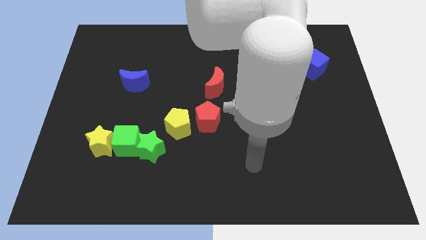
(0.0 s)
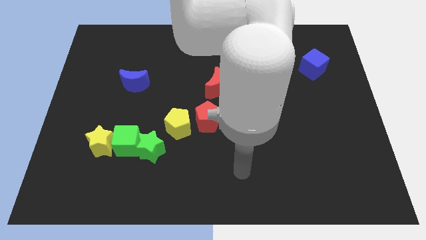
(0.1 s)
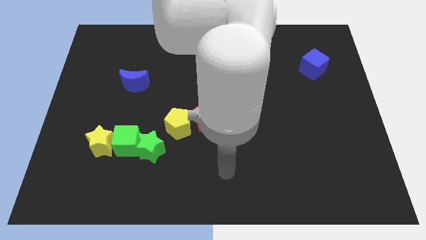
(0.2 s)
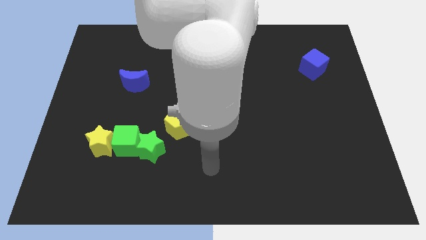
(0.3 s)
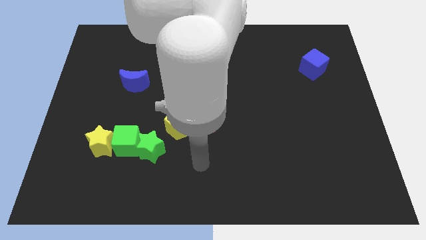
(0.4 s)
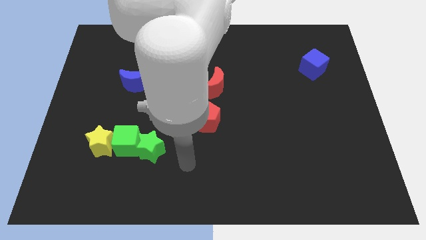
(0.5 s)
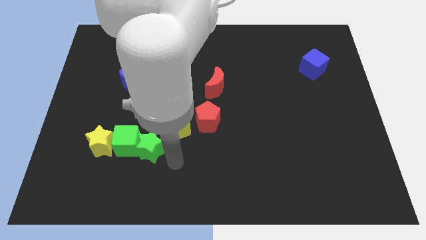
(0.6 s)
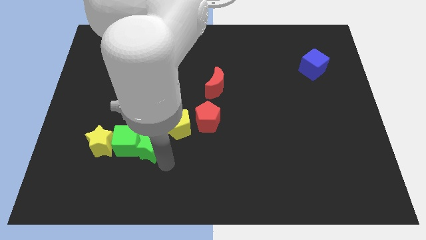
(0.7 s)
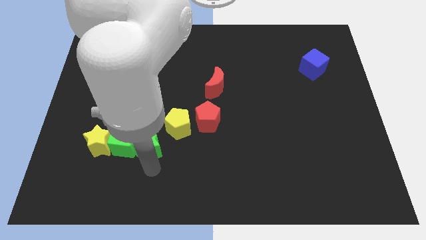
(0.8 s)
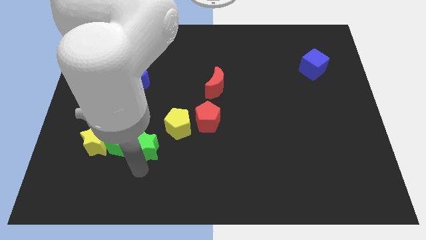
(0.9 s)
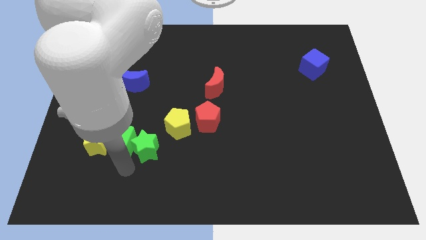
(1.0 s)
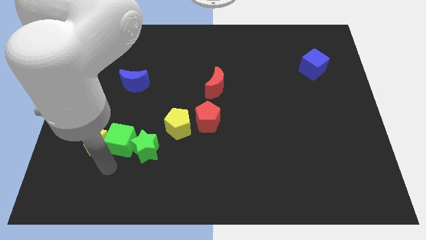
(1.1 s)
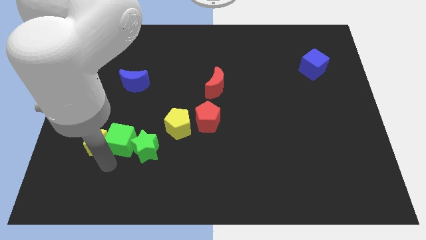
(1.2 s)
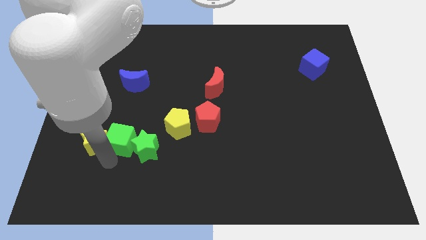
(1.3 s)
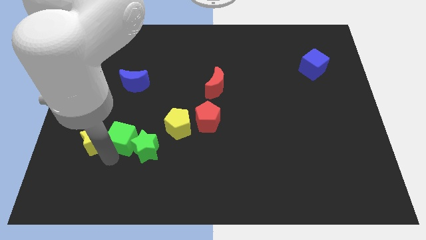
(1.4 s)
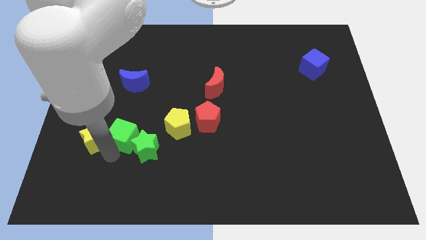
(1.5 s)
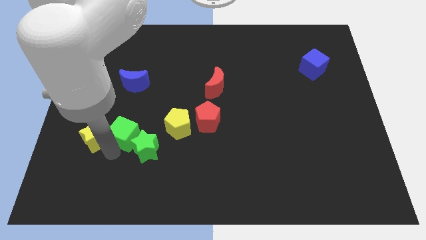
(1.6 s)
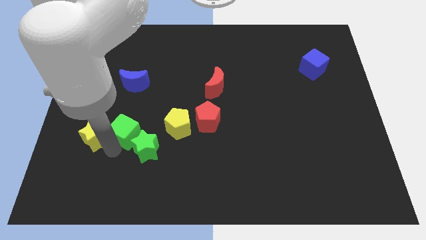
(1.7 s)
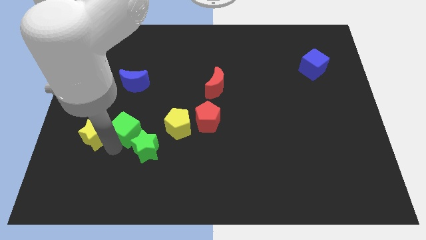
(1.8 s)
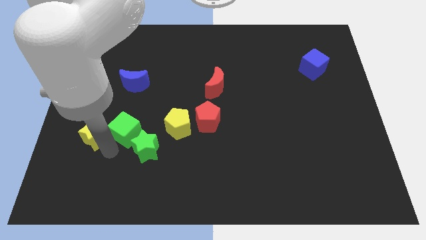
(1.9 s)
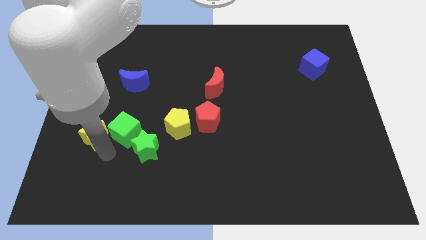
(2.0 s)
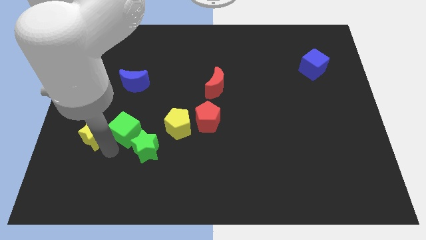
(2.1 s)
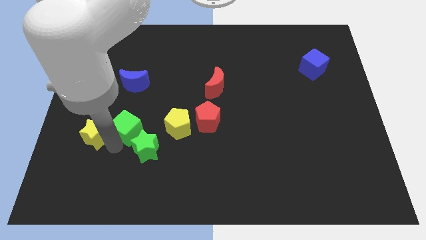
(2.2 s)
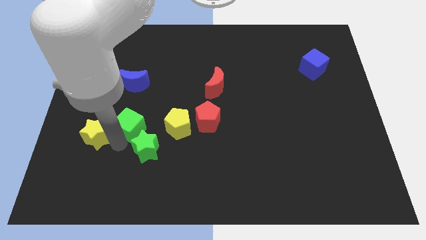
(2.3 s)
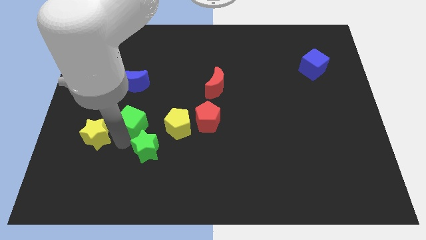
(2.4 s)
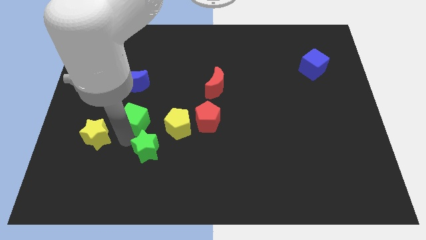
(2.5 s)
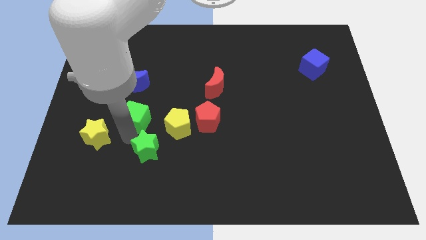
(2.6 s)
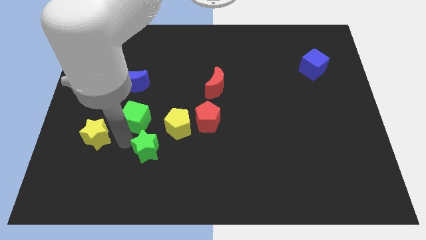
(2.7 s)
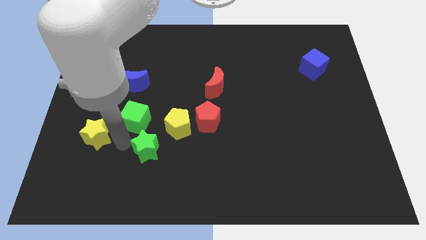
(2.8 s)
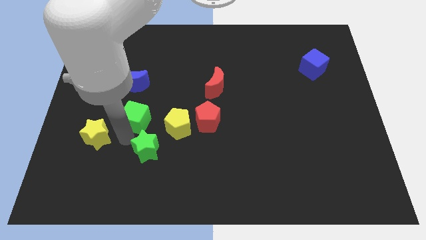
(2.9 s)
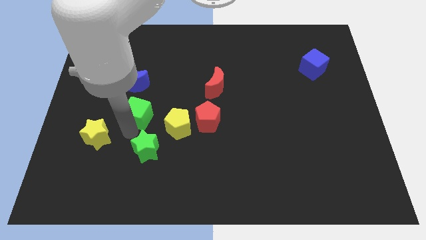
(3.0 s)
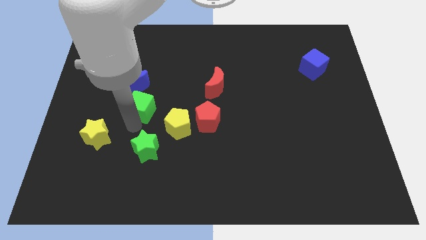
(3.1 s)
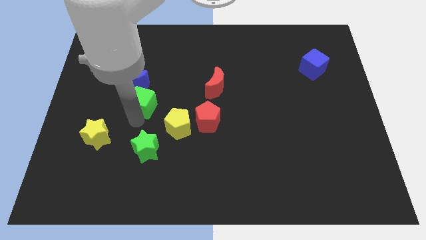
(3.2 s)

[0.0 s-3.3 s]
pull the green cube apart from the green star and yellow star

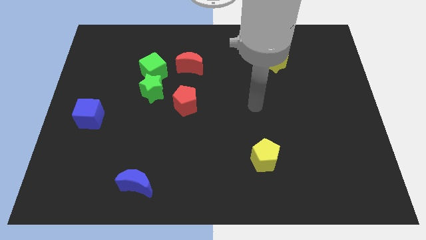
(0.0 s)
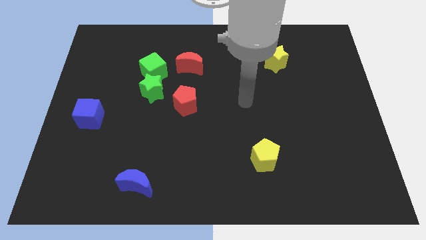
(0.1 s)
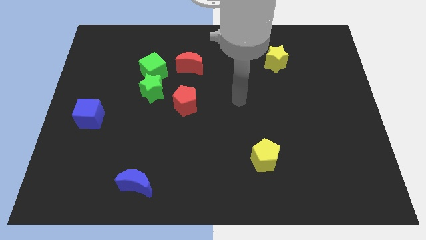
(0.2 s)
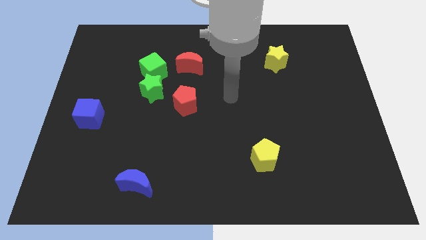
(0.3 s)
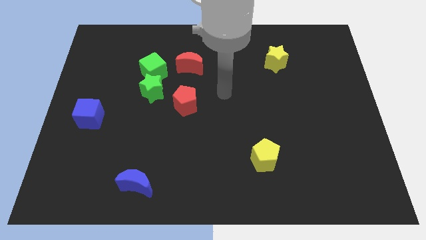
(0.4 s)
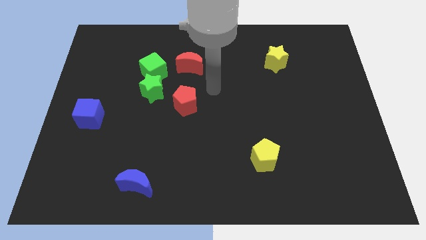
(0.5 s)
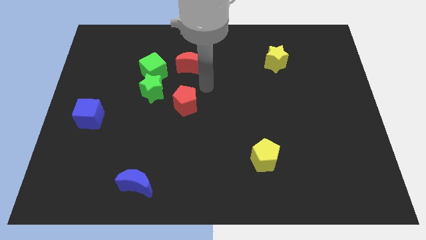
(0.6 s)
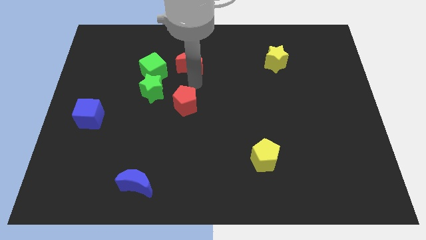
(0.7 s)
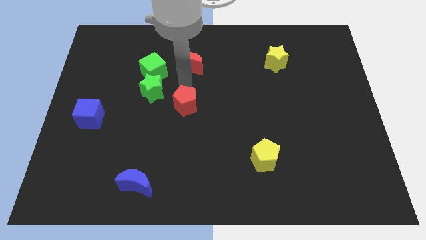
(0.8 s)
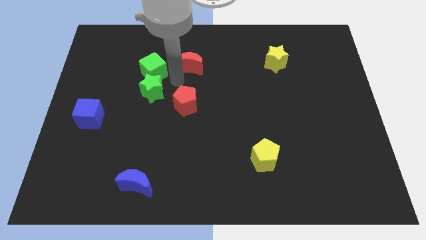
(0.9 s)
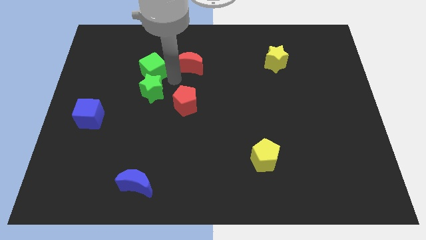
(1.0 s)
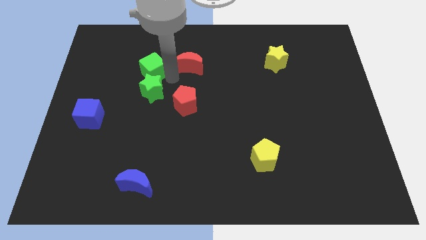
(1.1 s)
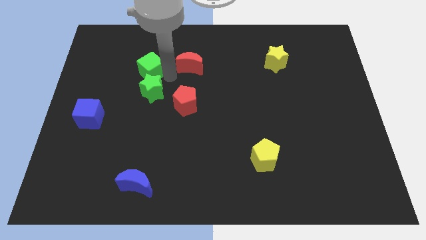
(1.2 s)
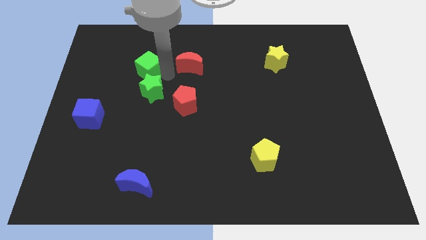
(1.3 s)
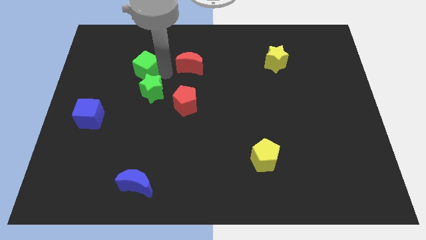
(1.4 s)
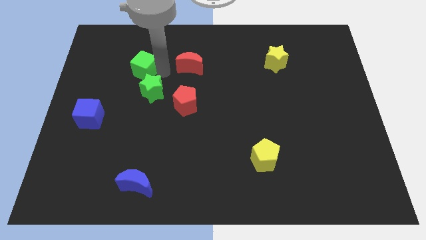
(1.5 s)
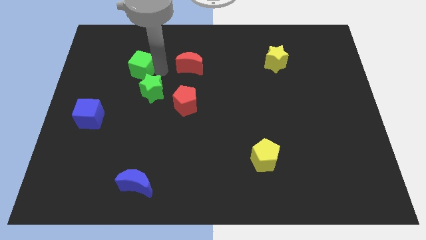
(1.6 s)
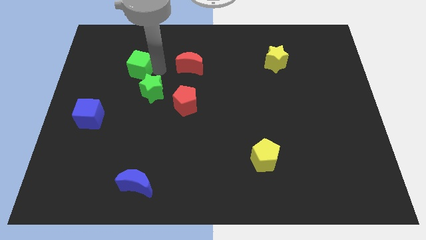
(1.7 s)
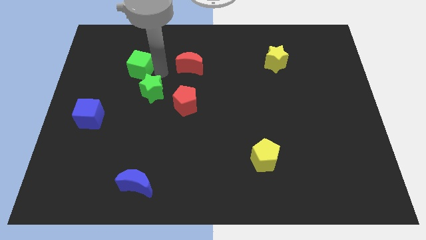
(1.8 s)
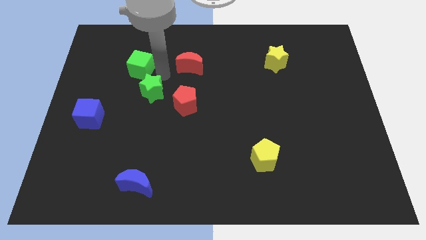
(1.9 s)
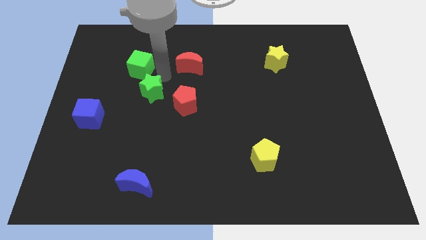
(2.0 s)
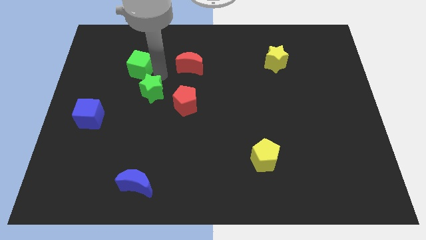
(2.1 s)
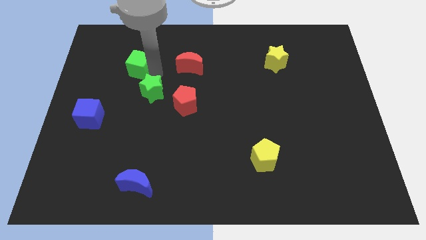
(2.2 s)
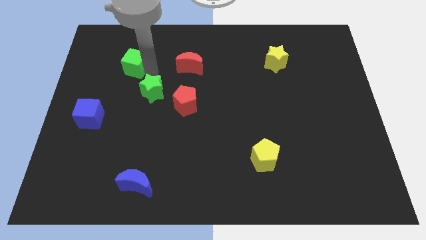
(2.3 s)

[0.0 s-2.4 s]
pull the green cube apart from the green star and red moon

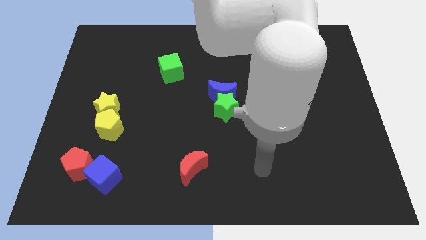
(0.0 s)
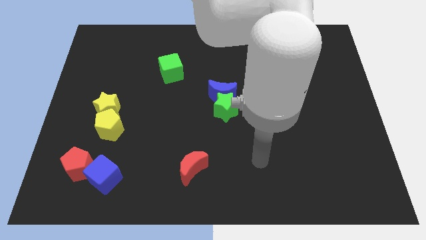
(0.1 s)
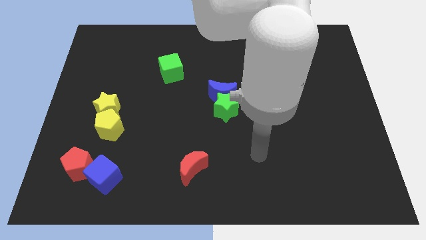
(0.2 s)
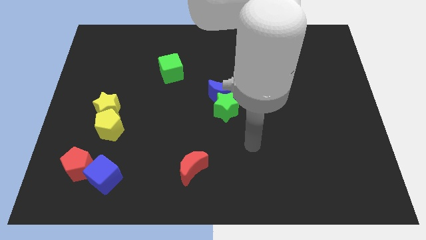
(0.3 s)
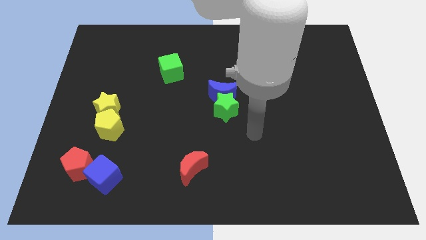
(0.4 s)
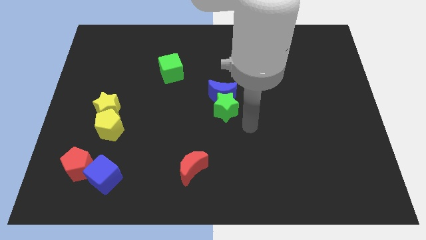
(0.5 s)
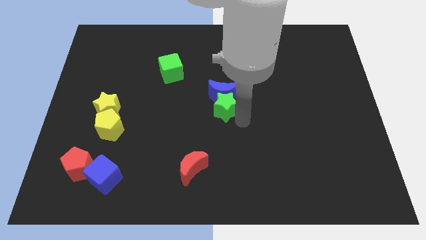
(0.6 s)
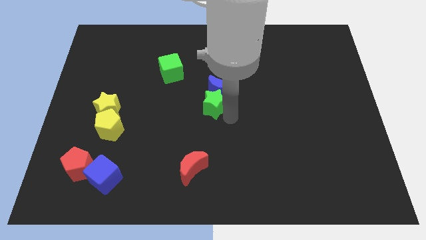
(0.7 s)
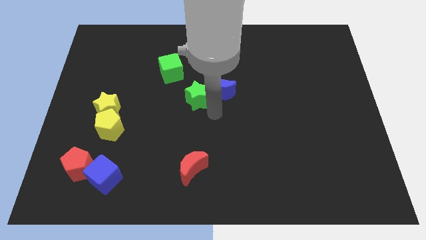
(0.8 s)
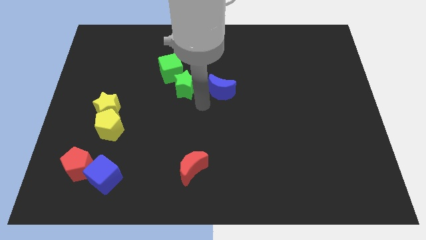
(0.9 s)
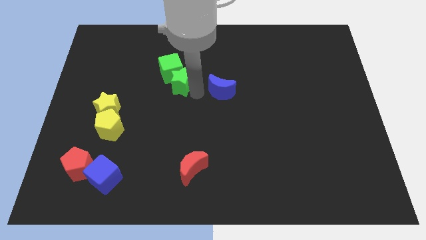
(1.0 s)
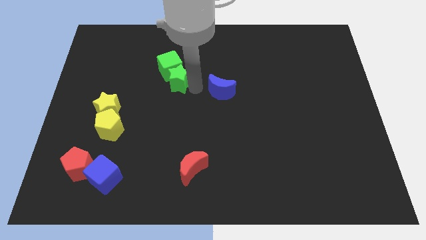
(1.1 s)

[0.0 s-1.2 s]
move the blue moon away from the green star

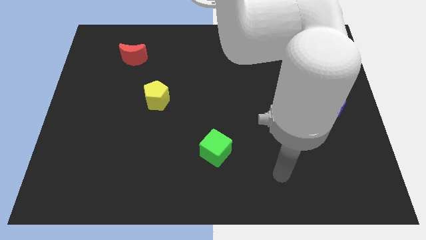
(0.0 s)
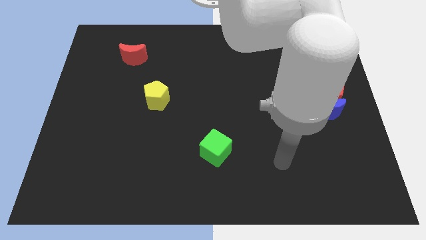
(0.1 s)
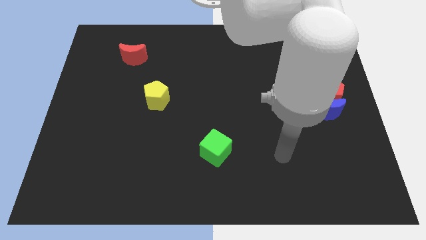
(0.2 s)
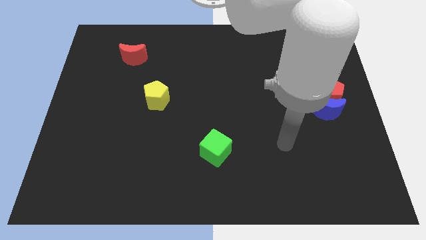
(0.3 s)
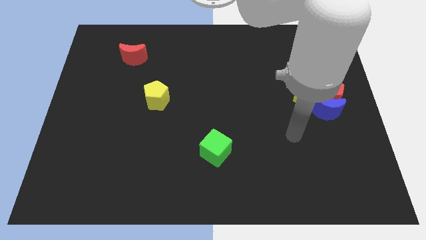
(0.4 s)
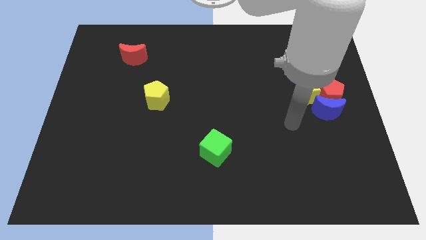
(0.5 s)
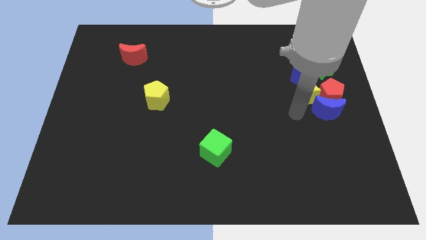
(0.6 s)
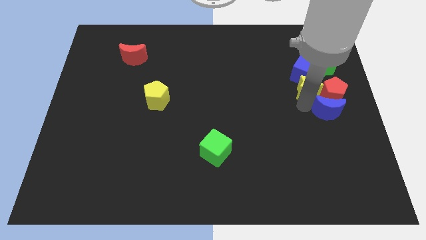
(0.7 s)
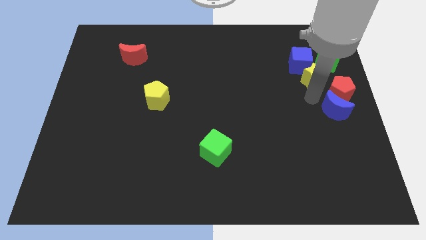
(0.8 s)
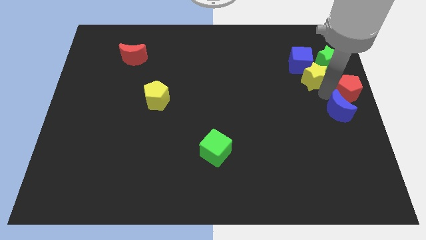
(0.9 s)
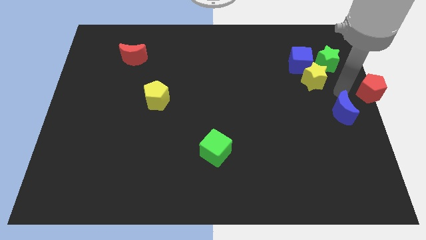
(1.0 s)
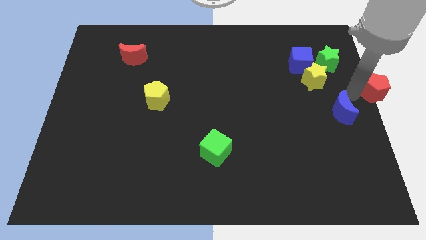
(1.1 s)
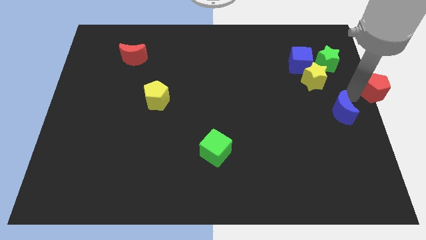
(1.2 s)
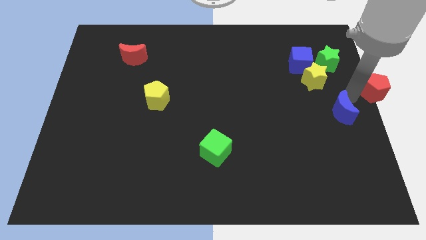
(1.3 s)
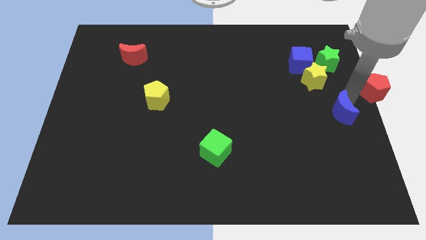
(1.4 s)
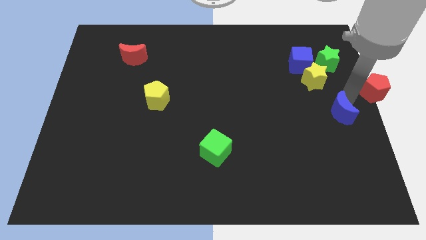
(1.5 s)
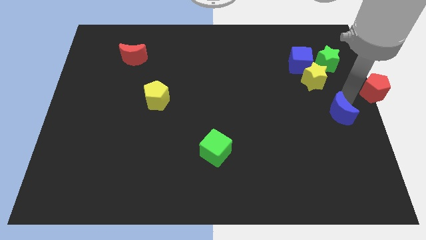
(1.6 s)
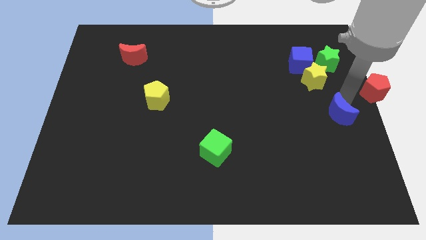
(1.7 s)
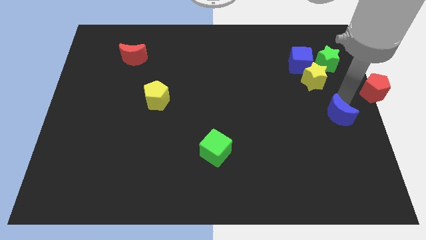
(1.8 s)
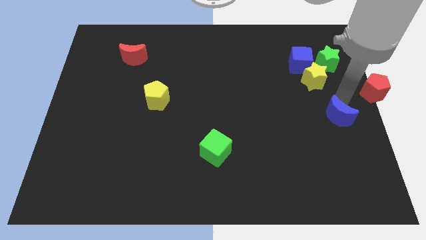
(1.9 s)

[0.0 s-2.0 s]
pull the blue moon apart from the red pentagon and yellow star

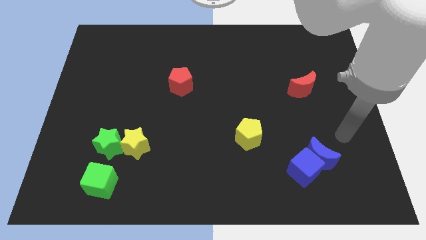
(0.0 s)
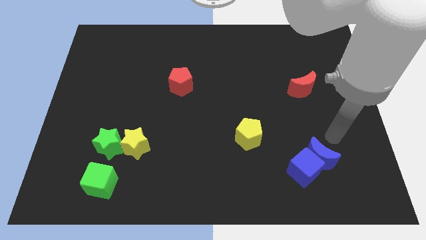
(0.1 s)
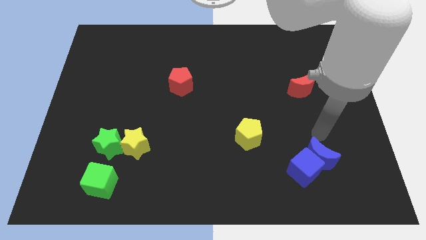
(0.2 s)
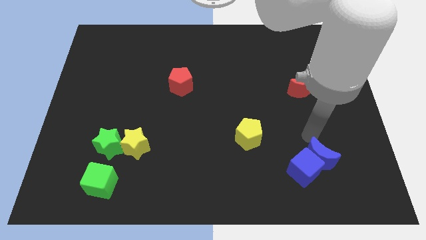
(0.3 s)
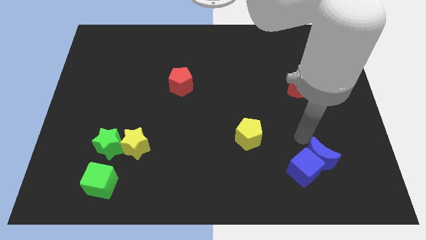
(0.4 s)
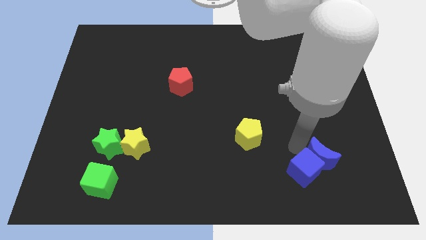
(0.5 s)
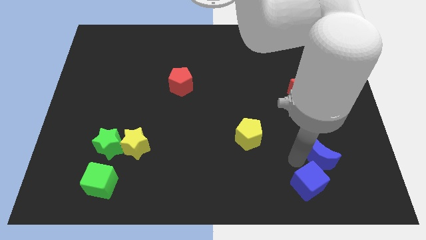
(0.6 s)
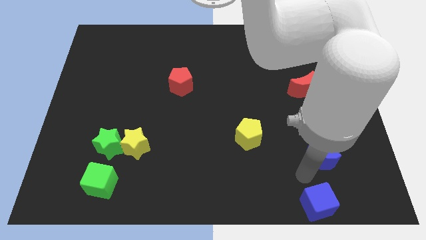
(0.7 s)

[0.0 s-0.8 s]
separate the blue moon from the blue cube
